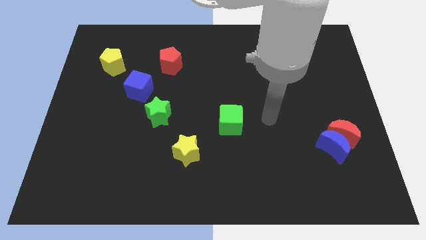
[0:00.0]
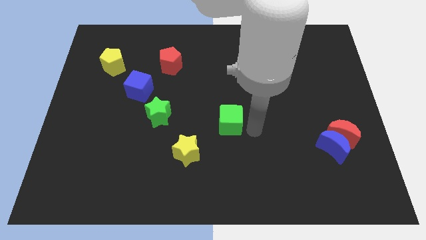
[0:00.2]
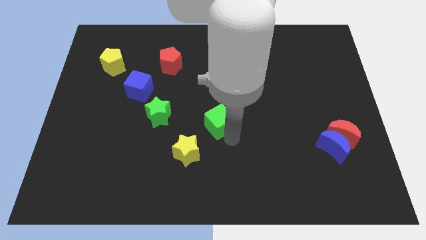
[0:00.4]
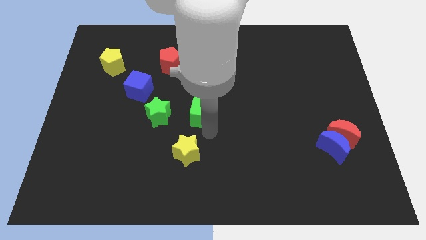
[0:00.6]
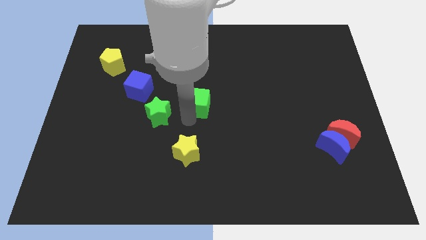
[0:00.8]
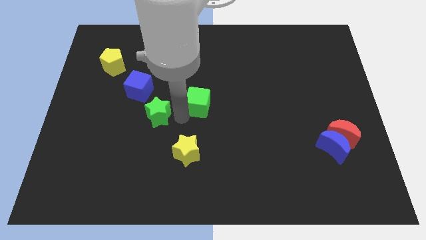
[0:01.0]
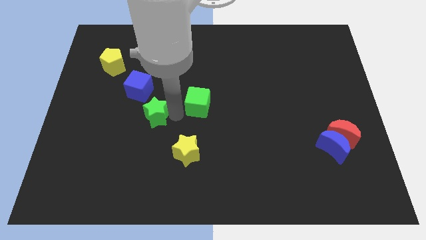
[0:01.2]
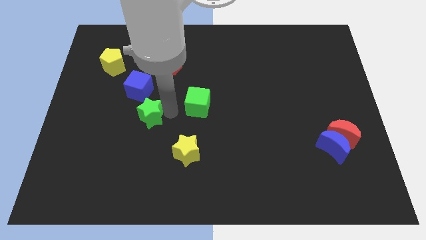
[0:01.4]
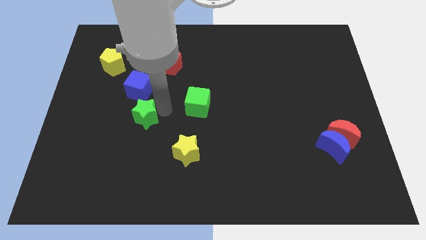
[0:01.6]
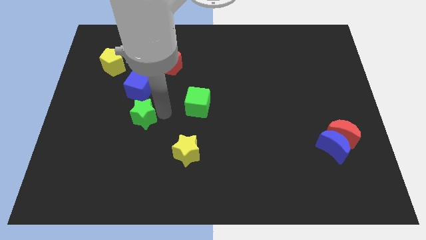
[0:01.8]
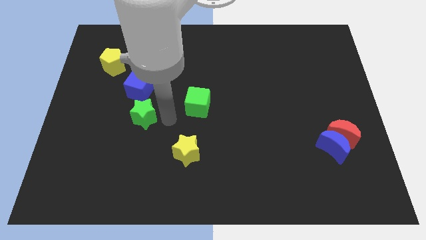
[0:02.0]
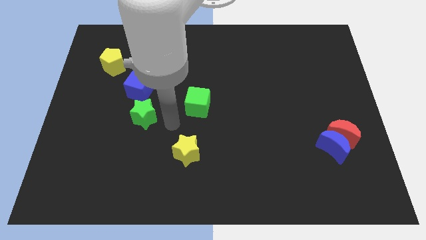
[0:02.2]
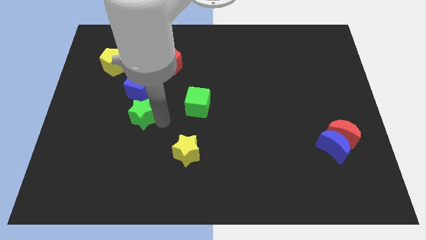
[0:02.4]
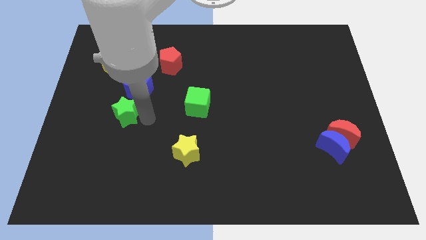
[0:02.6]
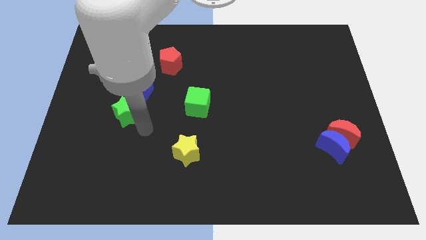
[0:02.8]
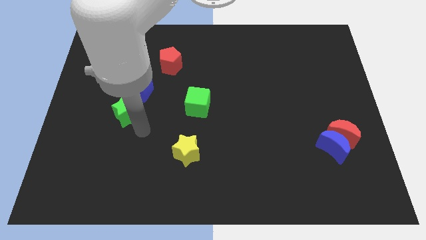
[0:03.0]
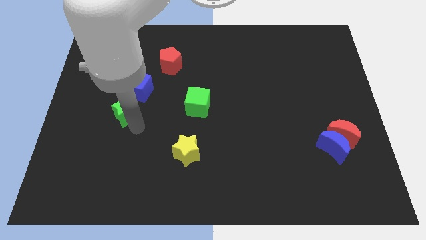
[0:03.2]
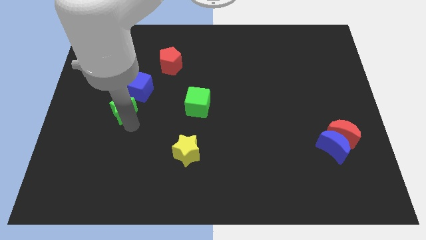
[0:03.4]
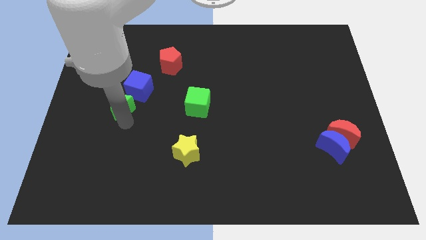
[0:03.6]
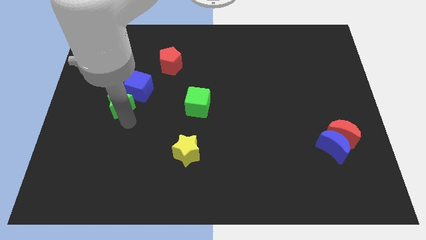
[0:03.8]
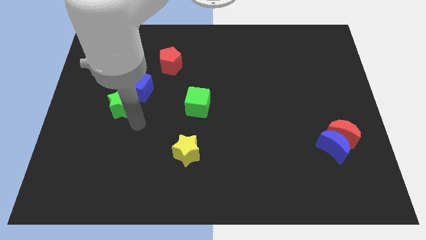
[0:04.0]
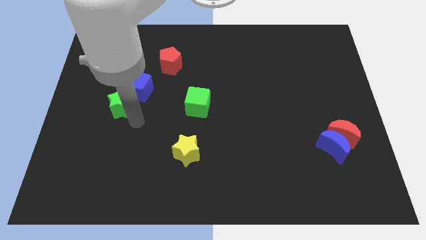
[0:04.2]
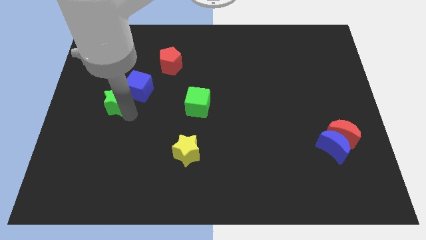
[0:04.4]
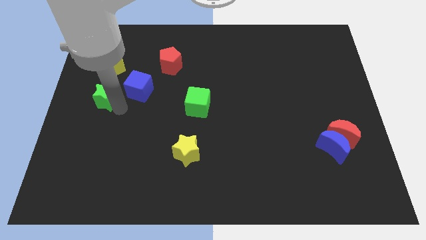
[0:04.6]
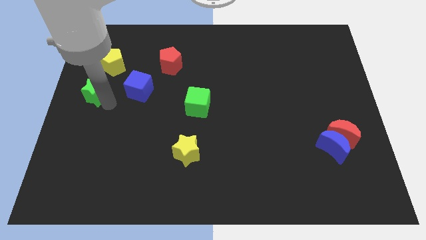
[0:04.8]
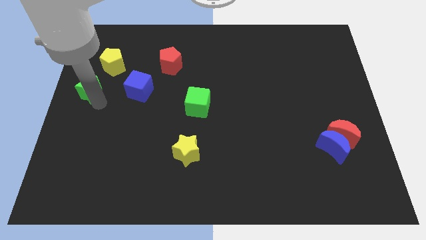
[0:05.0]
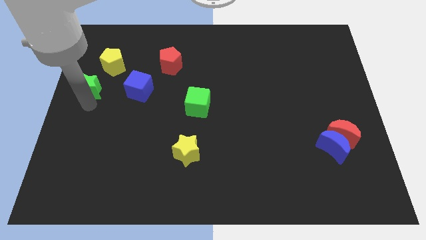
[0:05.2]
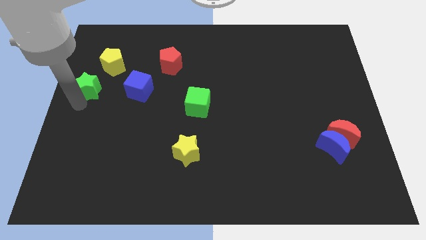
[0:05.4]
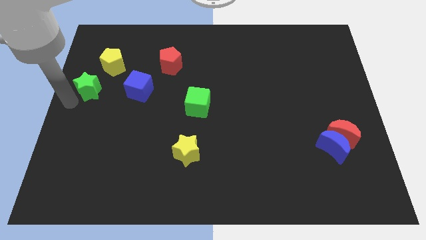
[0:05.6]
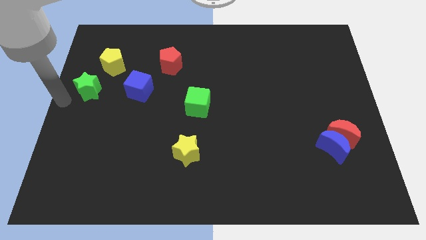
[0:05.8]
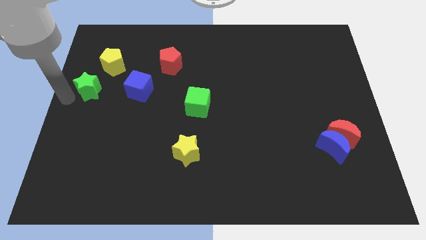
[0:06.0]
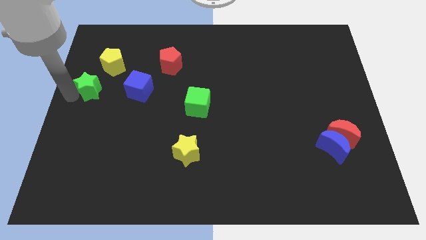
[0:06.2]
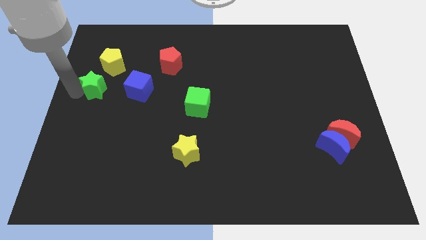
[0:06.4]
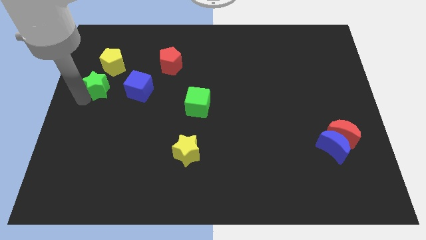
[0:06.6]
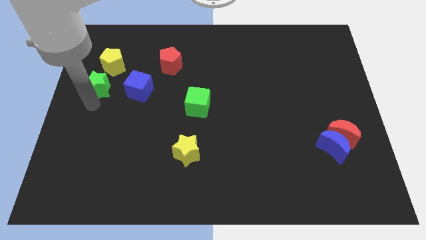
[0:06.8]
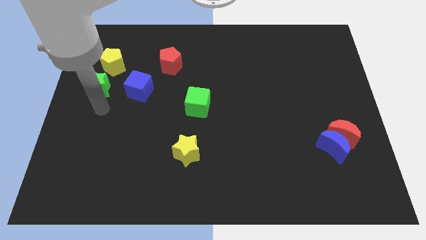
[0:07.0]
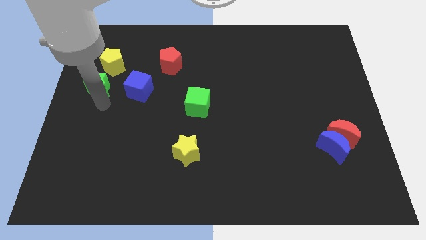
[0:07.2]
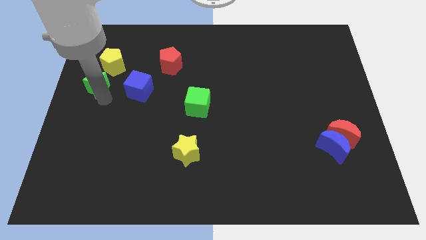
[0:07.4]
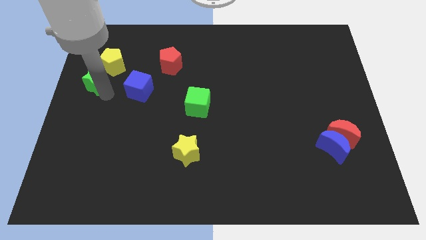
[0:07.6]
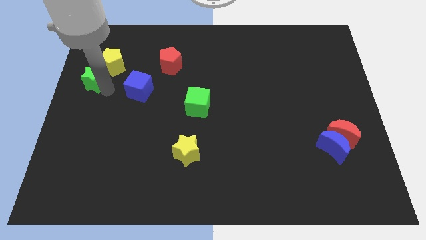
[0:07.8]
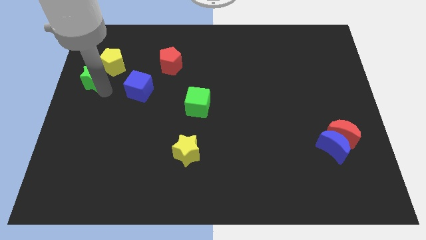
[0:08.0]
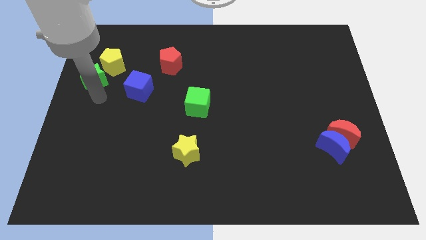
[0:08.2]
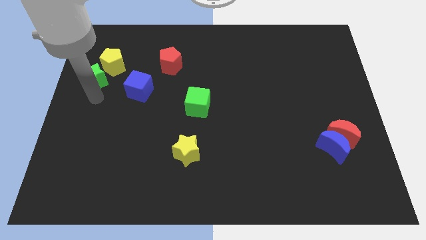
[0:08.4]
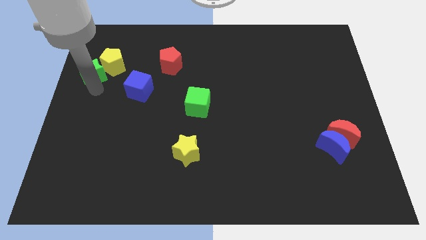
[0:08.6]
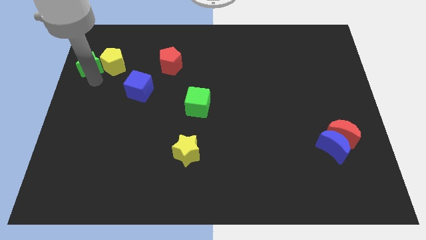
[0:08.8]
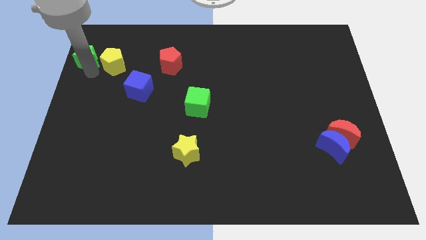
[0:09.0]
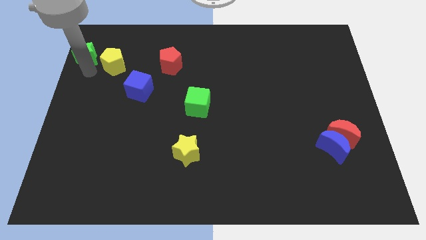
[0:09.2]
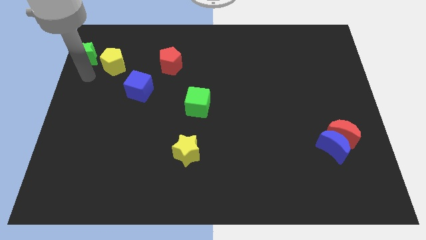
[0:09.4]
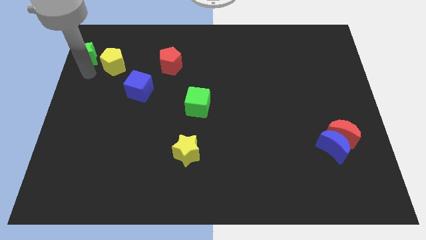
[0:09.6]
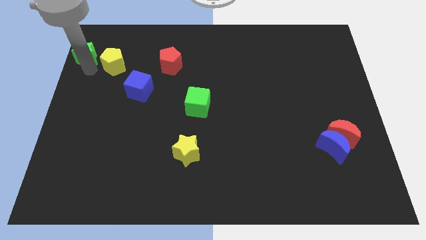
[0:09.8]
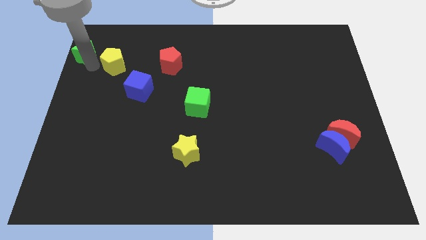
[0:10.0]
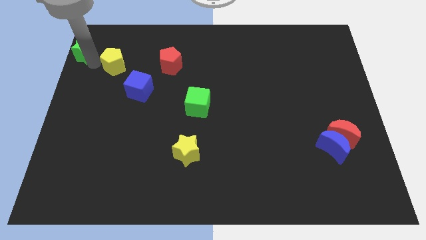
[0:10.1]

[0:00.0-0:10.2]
put the green star to the top left of the board

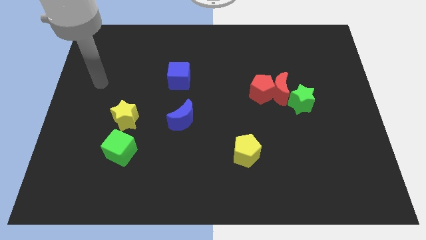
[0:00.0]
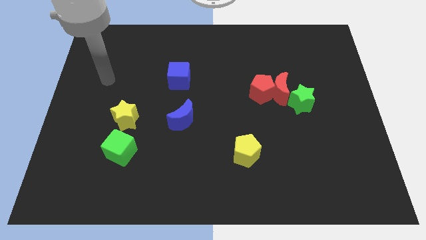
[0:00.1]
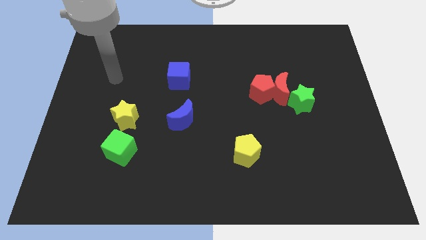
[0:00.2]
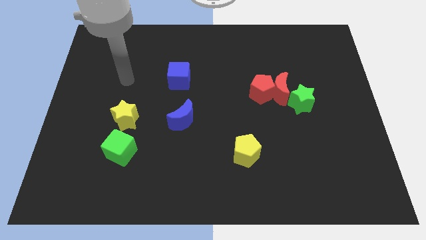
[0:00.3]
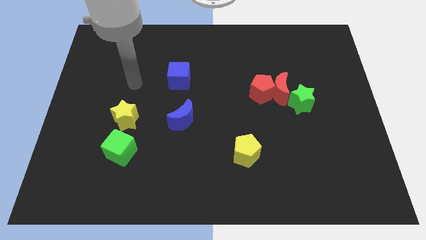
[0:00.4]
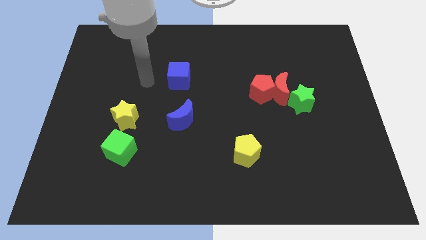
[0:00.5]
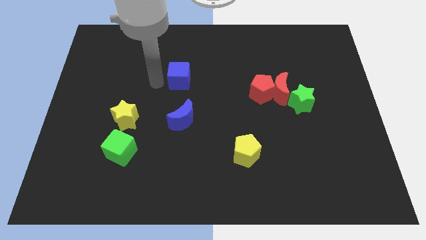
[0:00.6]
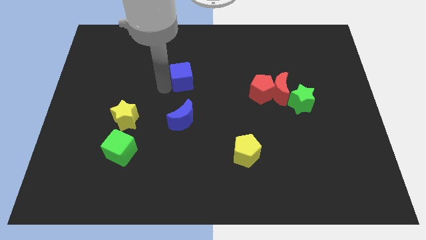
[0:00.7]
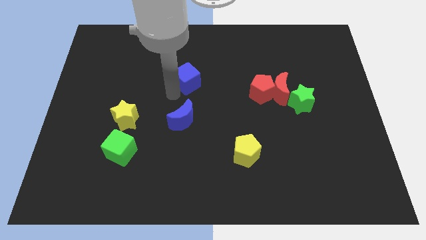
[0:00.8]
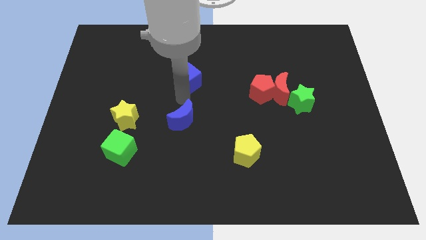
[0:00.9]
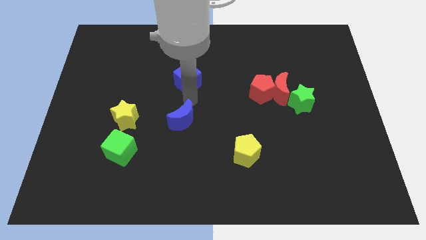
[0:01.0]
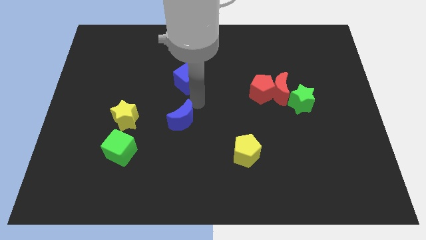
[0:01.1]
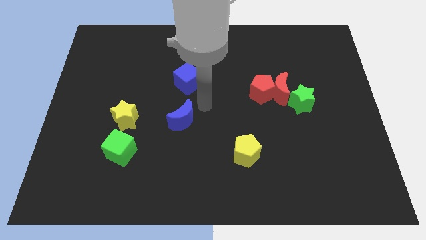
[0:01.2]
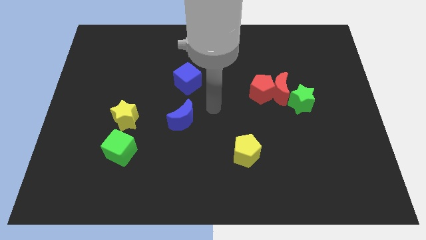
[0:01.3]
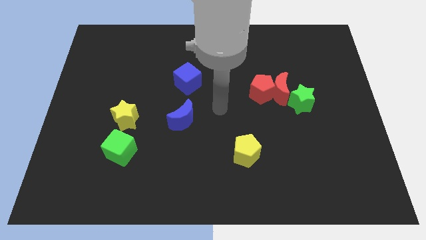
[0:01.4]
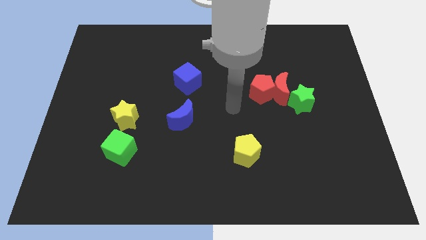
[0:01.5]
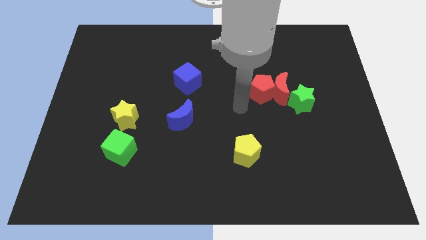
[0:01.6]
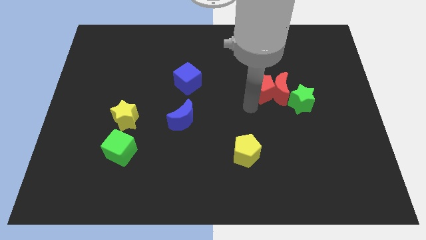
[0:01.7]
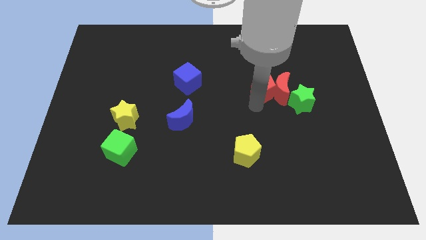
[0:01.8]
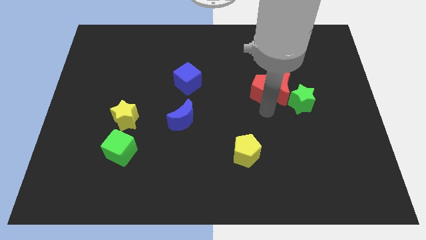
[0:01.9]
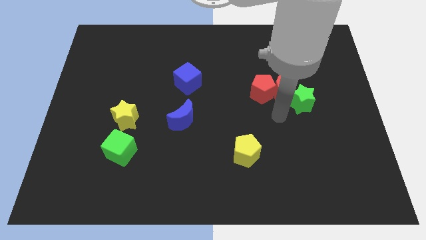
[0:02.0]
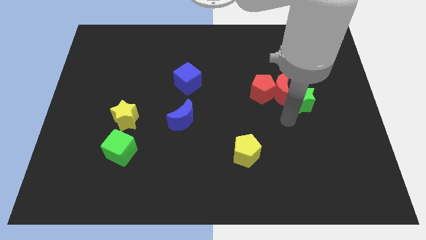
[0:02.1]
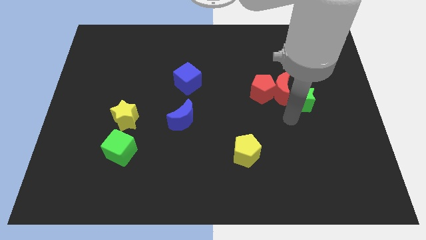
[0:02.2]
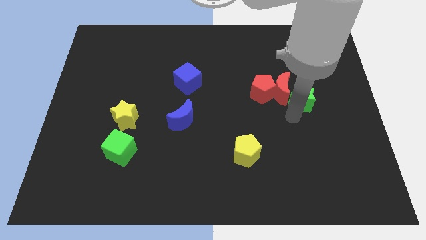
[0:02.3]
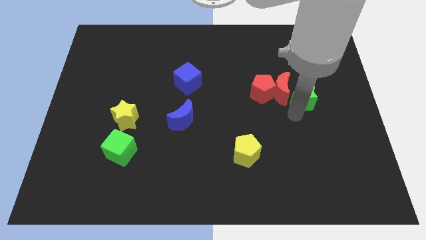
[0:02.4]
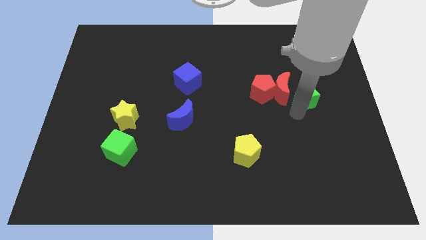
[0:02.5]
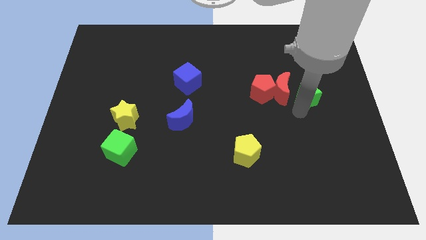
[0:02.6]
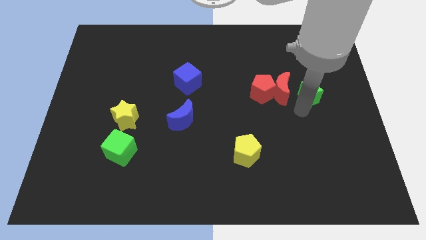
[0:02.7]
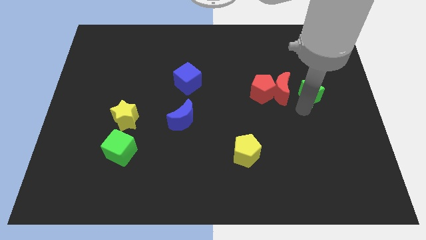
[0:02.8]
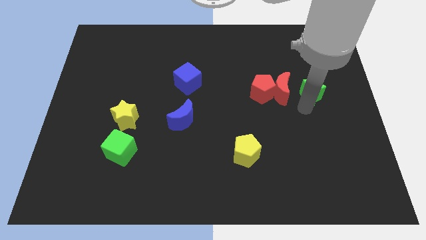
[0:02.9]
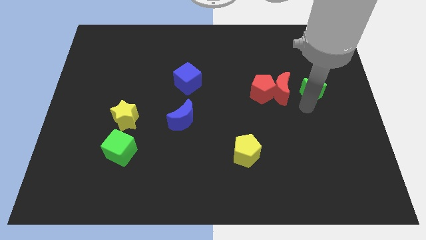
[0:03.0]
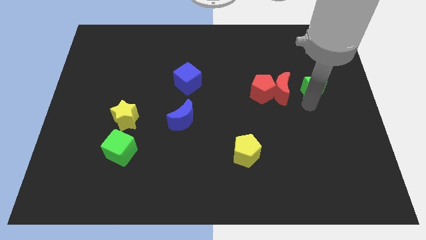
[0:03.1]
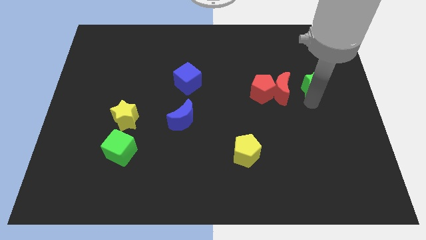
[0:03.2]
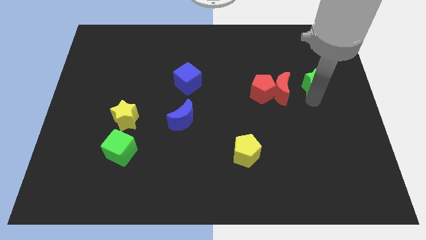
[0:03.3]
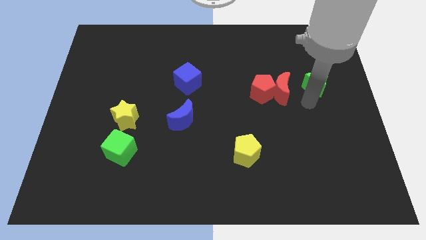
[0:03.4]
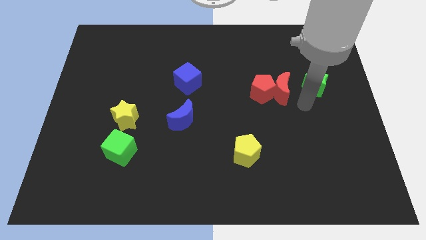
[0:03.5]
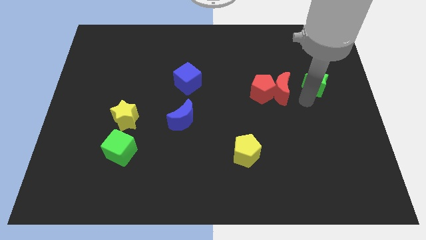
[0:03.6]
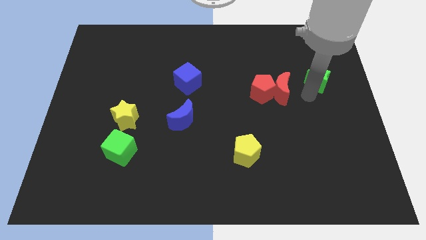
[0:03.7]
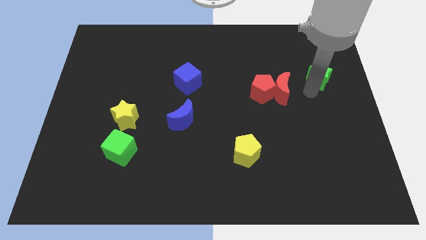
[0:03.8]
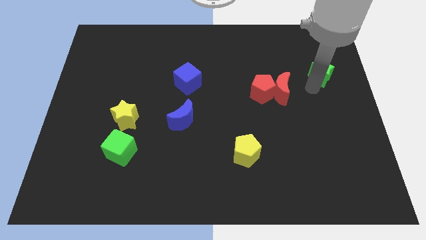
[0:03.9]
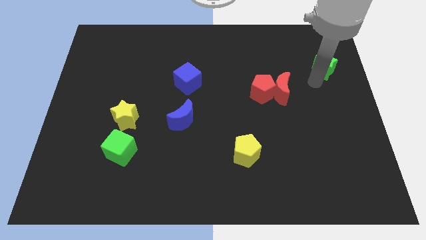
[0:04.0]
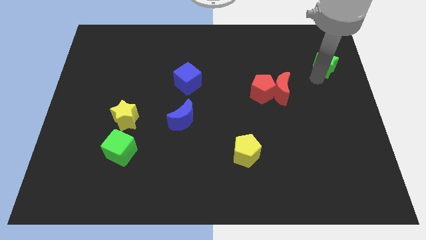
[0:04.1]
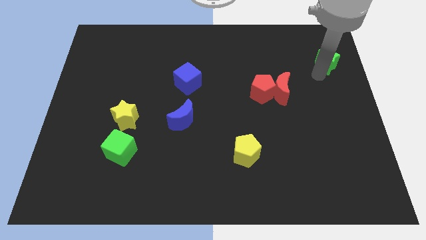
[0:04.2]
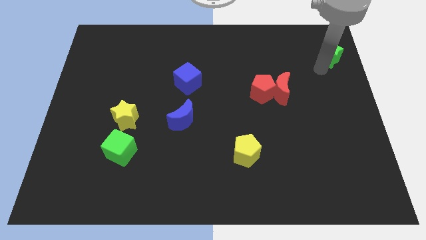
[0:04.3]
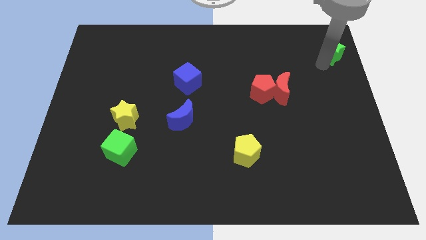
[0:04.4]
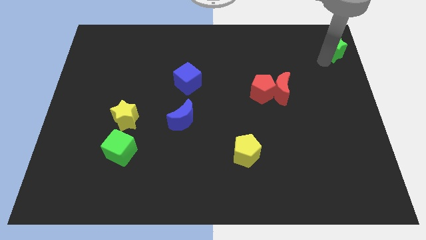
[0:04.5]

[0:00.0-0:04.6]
push the green star to the top right of the board
